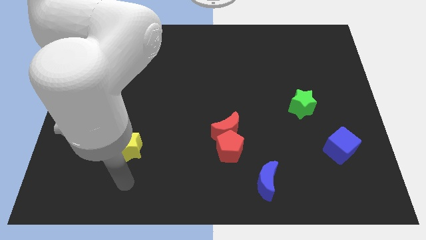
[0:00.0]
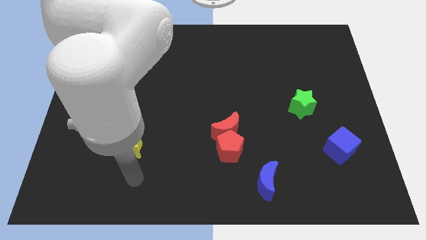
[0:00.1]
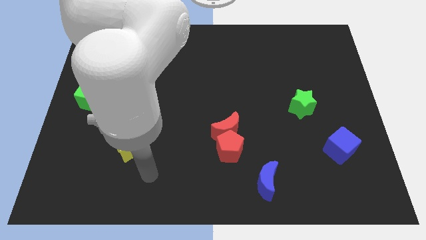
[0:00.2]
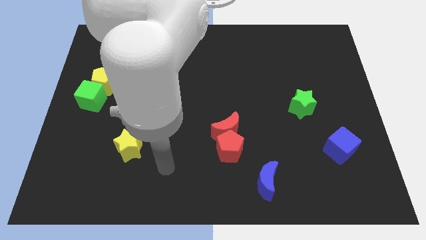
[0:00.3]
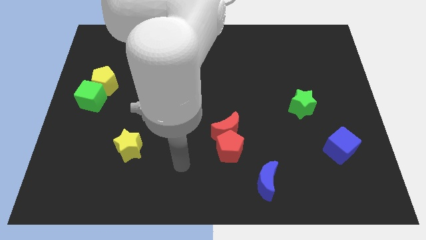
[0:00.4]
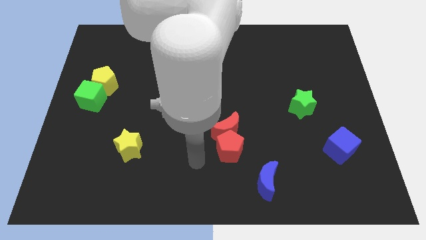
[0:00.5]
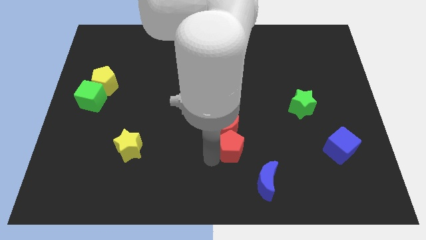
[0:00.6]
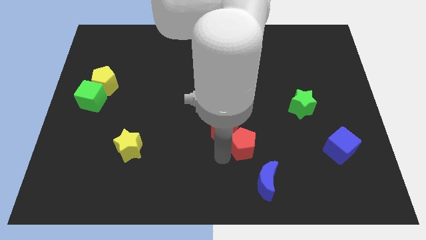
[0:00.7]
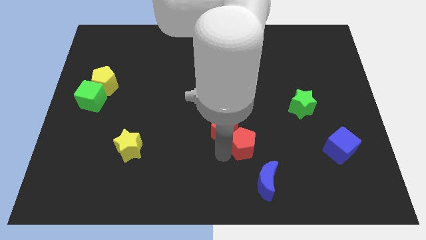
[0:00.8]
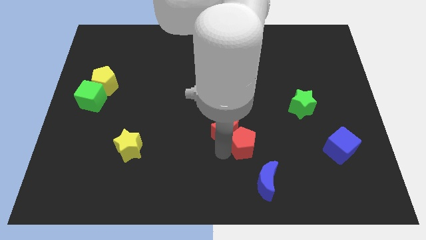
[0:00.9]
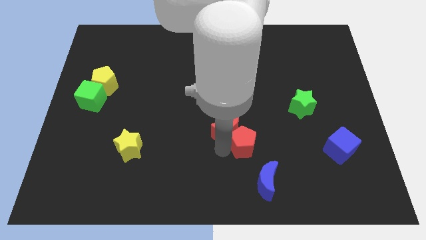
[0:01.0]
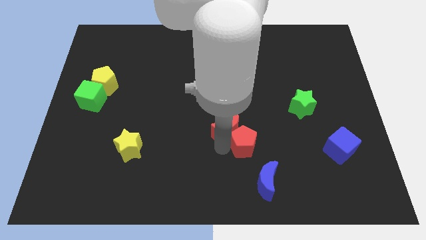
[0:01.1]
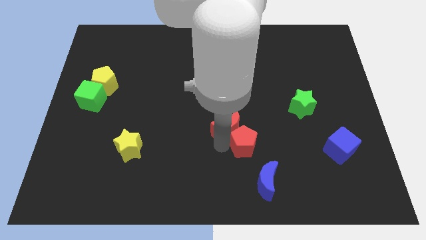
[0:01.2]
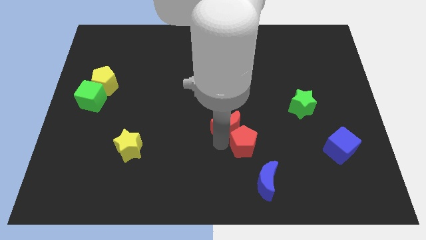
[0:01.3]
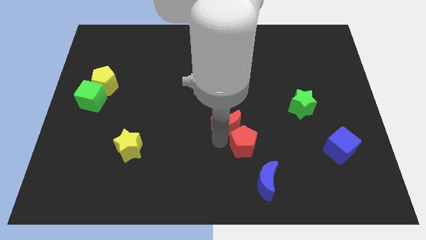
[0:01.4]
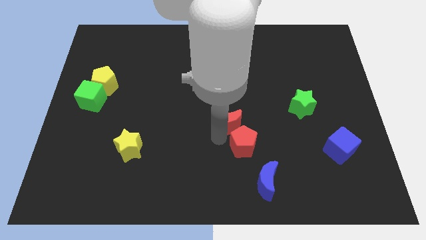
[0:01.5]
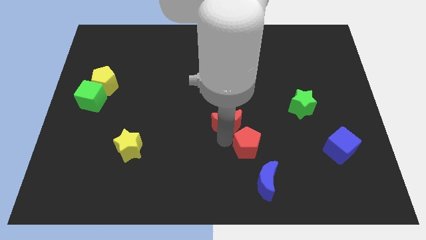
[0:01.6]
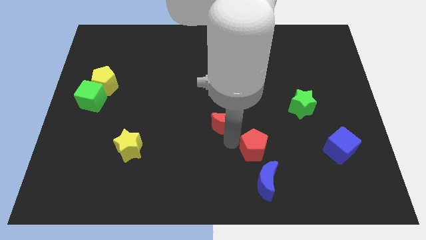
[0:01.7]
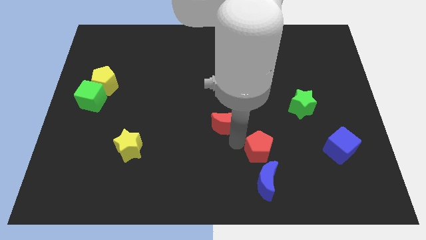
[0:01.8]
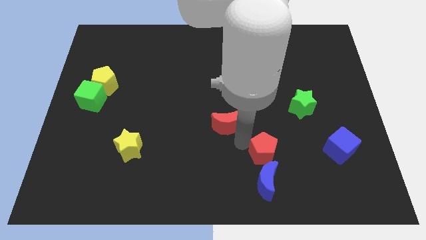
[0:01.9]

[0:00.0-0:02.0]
move the red moon away from the red pentagon

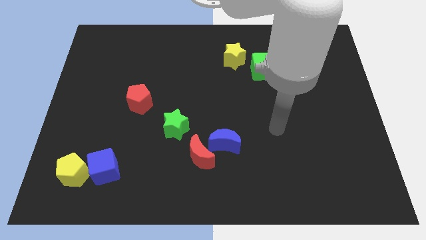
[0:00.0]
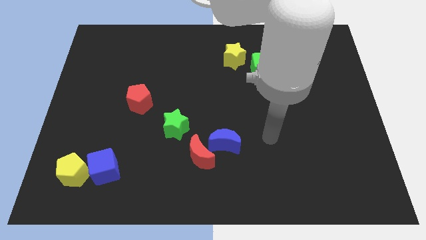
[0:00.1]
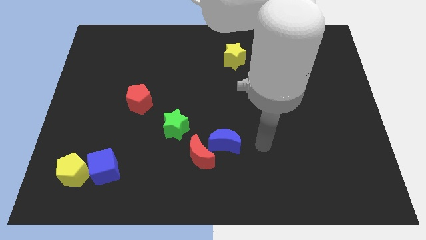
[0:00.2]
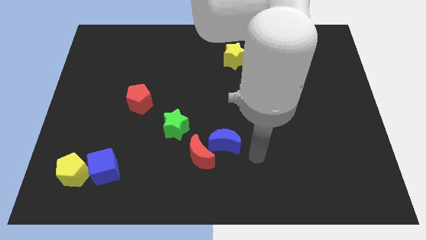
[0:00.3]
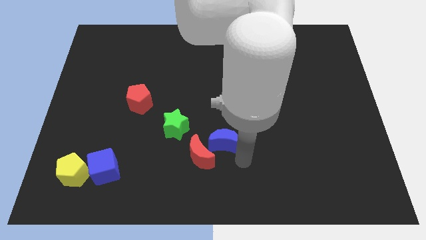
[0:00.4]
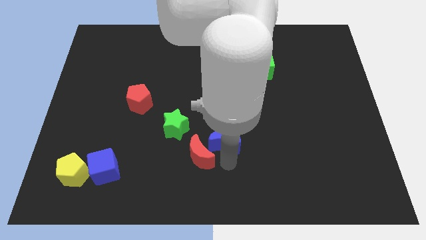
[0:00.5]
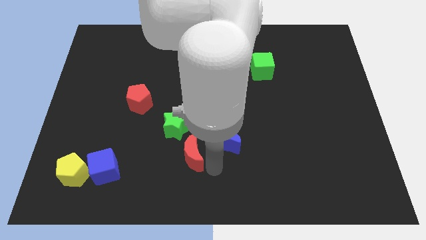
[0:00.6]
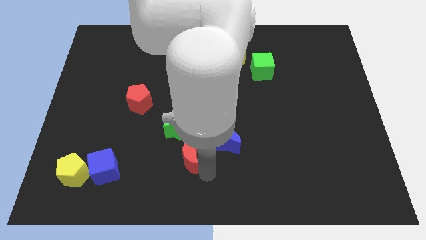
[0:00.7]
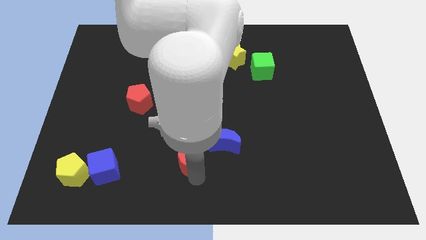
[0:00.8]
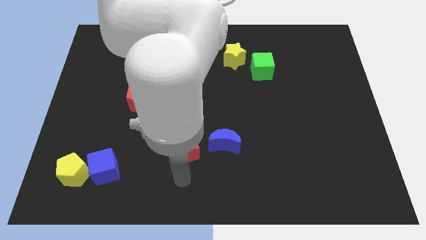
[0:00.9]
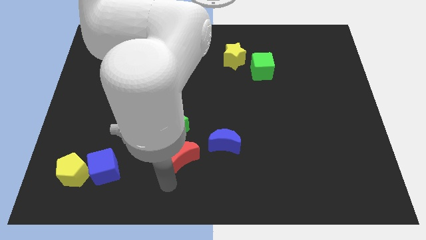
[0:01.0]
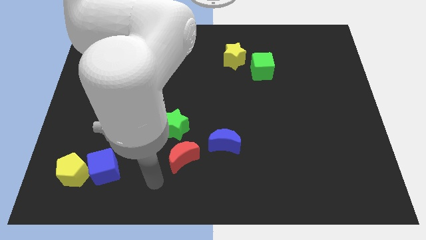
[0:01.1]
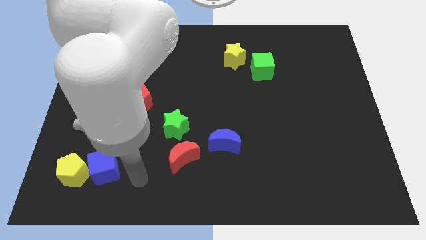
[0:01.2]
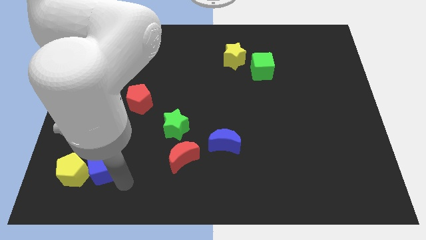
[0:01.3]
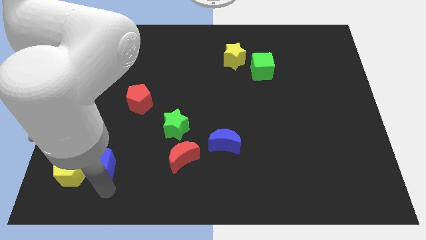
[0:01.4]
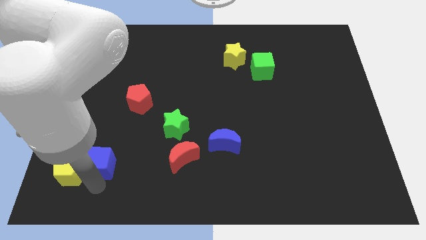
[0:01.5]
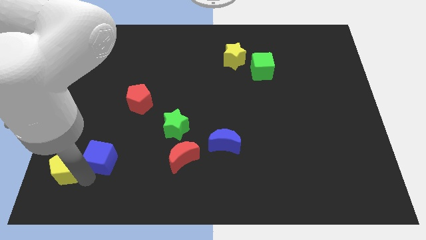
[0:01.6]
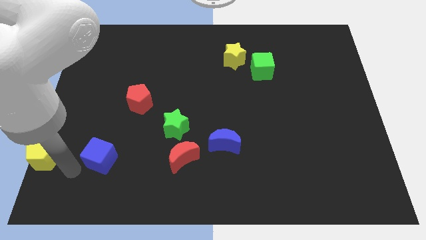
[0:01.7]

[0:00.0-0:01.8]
move the blue cube away from the yellow pentagon

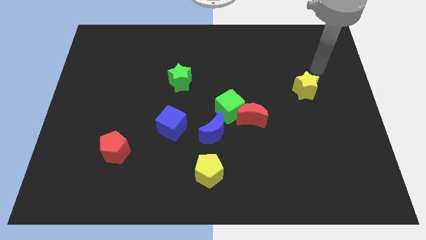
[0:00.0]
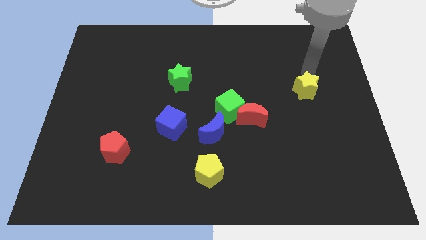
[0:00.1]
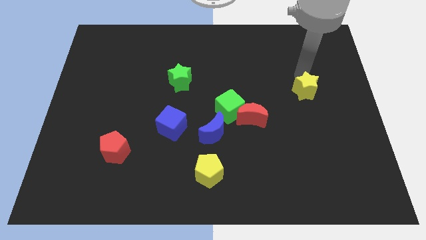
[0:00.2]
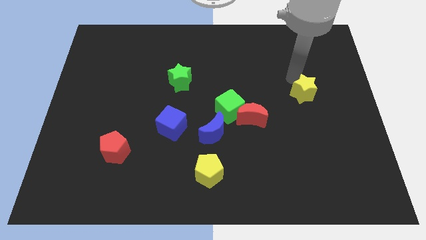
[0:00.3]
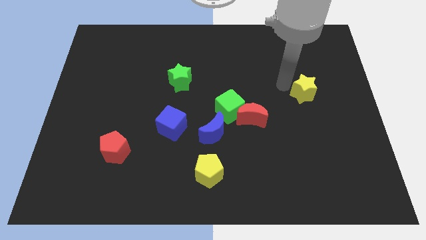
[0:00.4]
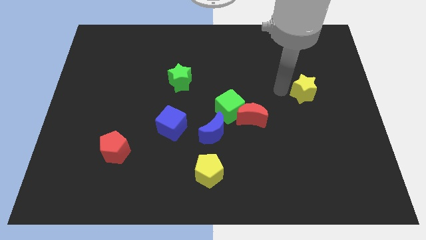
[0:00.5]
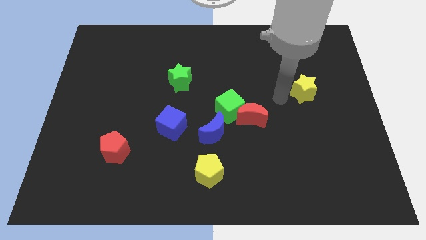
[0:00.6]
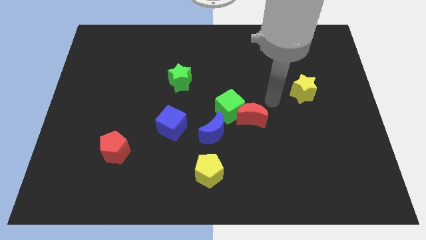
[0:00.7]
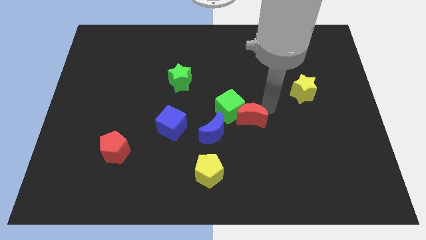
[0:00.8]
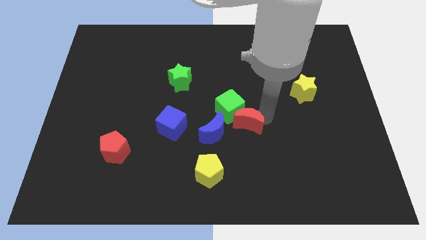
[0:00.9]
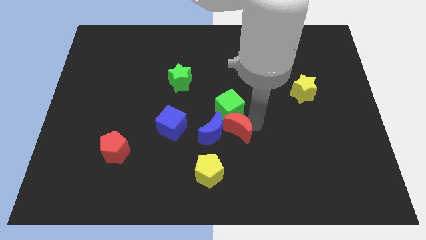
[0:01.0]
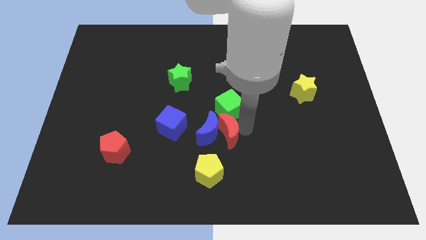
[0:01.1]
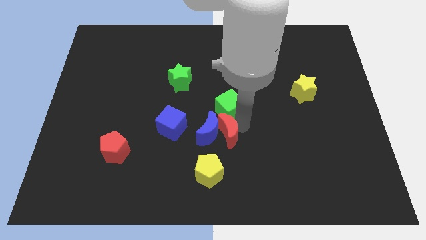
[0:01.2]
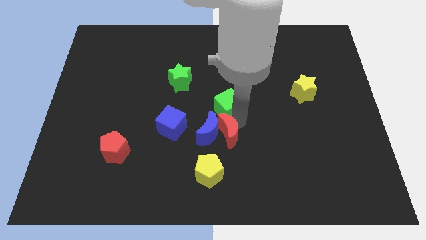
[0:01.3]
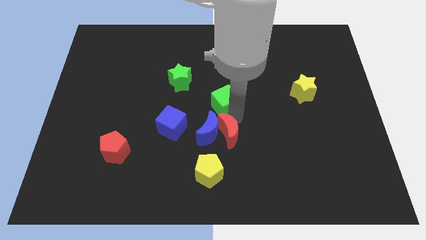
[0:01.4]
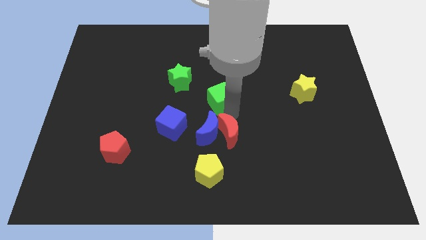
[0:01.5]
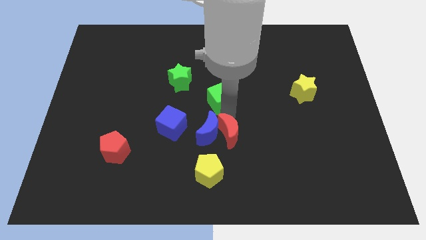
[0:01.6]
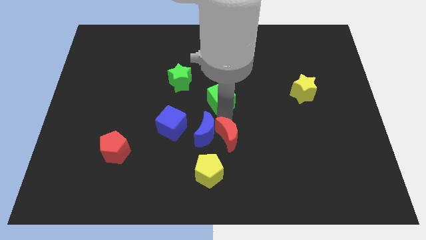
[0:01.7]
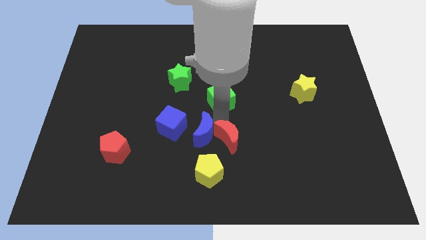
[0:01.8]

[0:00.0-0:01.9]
move the green cube away from the red moon and blue moon

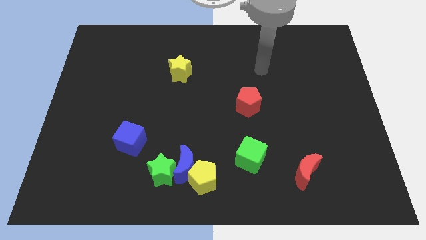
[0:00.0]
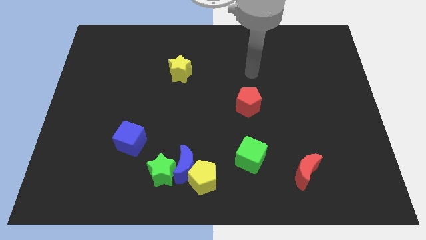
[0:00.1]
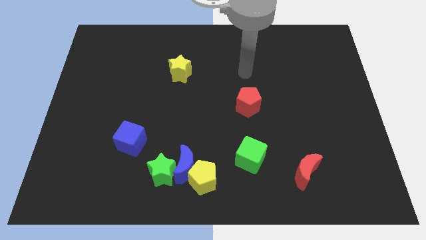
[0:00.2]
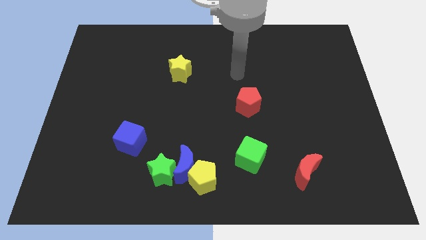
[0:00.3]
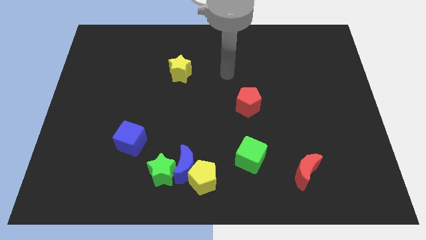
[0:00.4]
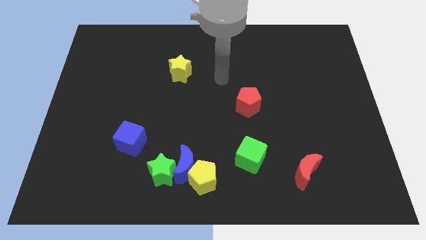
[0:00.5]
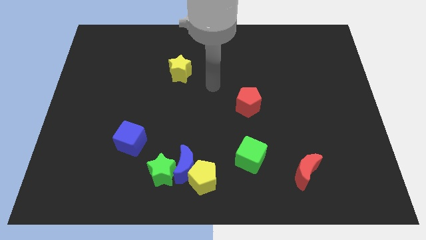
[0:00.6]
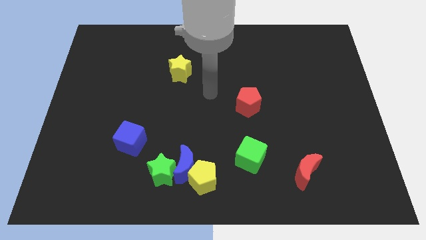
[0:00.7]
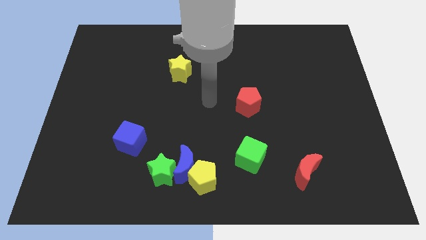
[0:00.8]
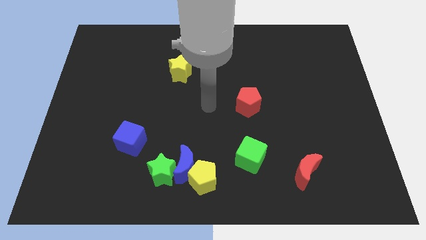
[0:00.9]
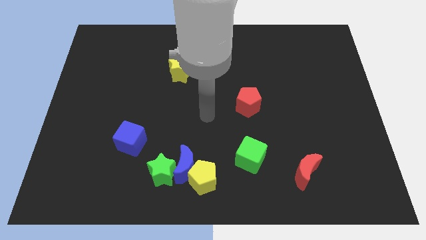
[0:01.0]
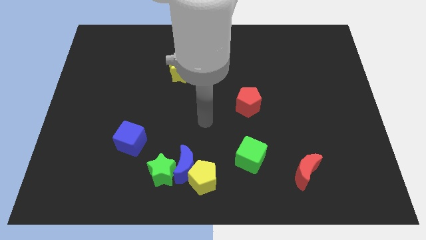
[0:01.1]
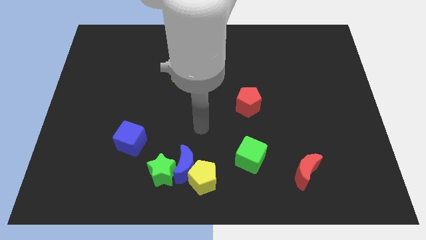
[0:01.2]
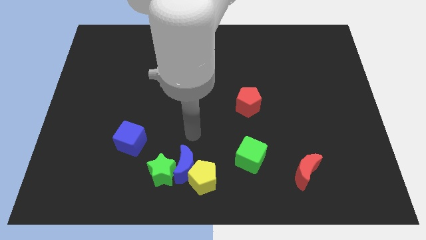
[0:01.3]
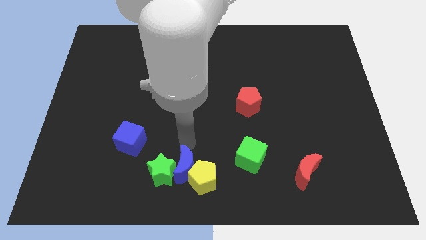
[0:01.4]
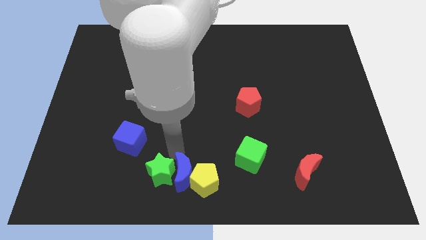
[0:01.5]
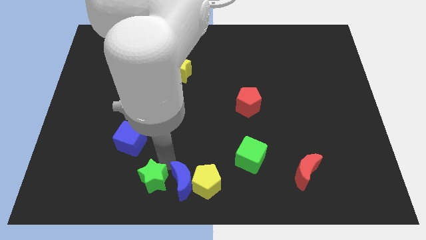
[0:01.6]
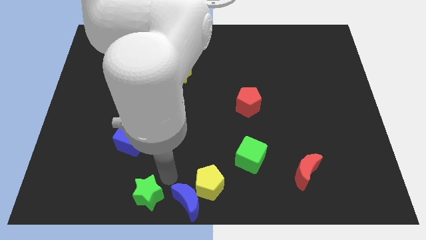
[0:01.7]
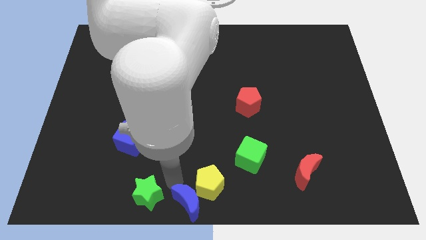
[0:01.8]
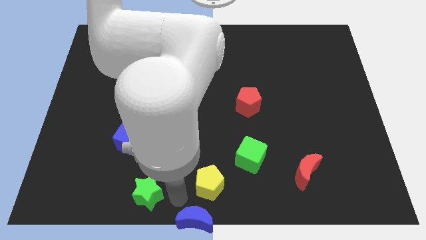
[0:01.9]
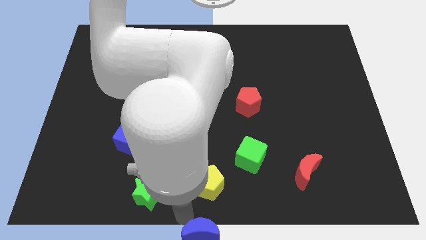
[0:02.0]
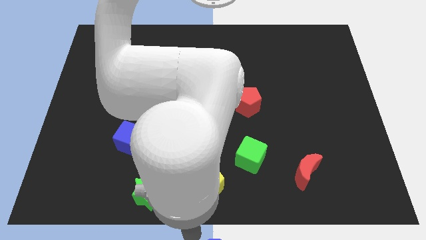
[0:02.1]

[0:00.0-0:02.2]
separate the blue moon from the yellow pentagon and green star

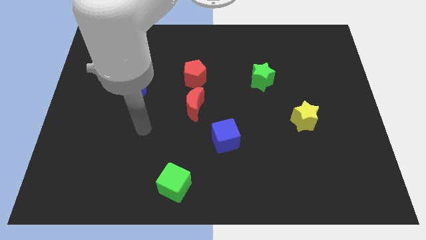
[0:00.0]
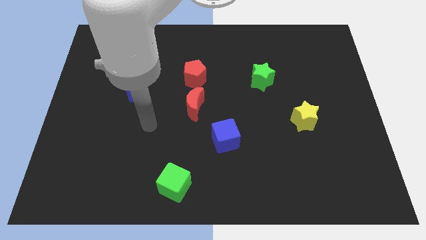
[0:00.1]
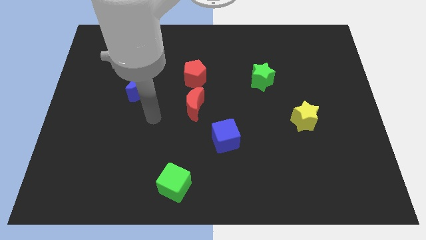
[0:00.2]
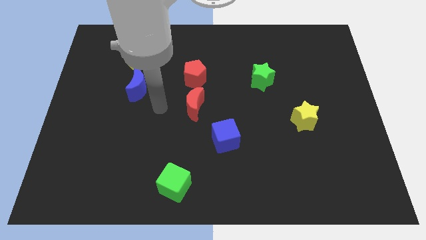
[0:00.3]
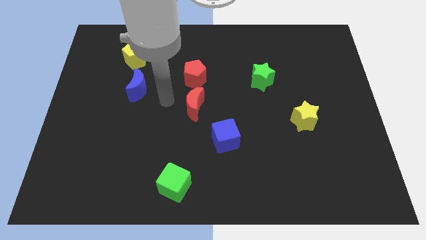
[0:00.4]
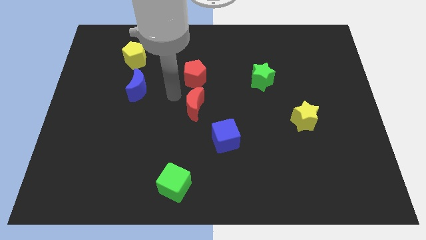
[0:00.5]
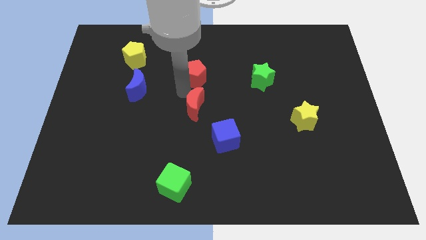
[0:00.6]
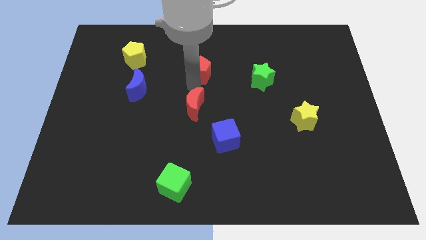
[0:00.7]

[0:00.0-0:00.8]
separate the red moon from the red pentagon

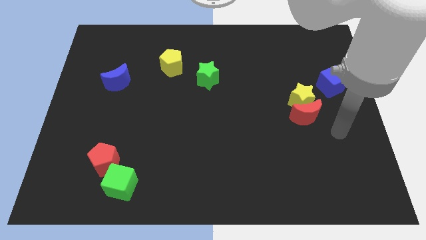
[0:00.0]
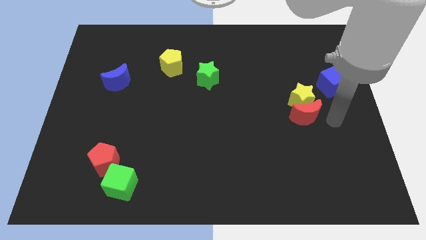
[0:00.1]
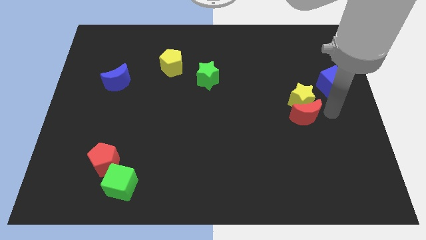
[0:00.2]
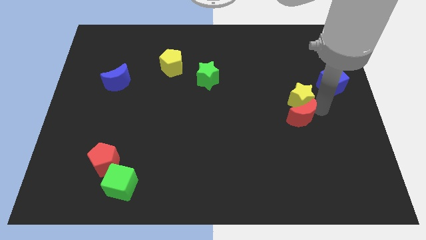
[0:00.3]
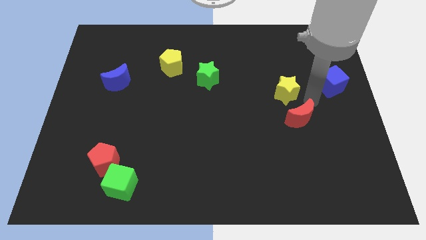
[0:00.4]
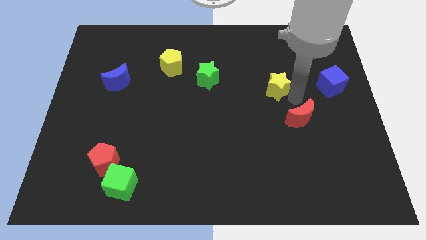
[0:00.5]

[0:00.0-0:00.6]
pull the red moon apart from the yellow star
